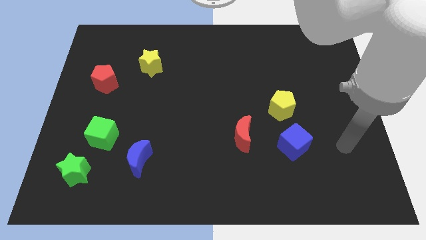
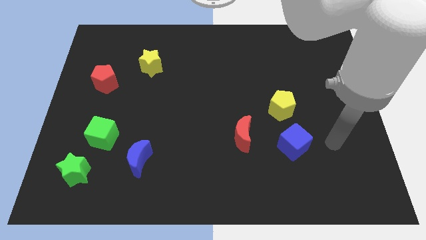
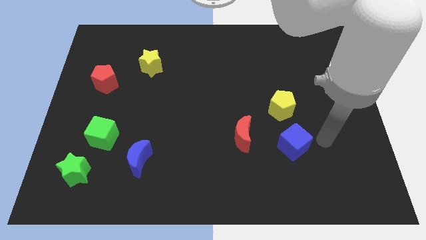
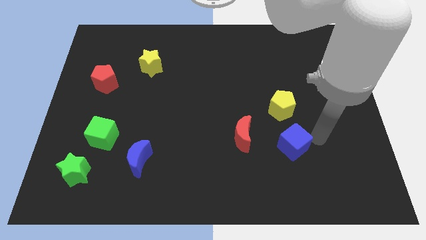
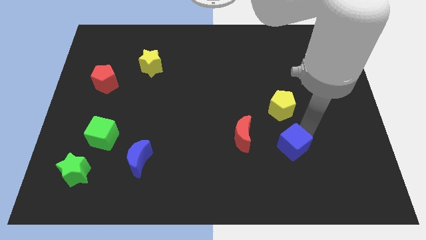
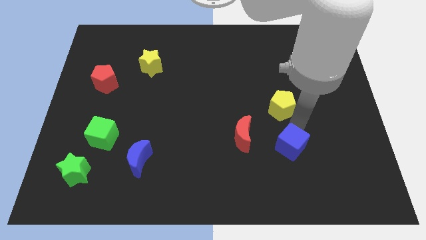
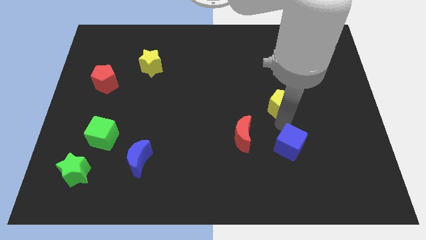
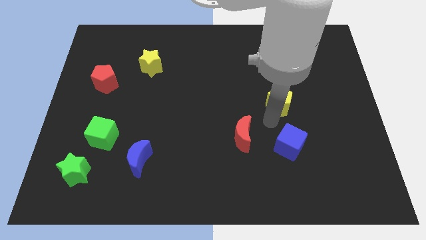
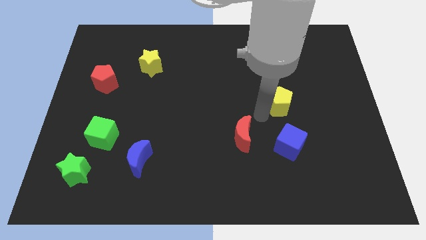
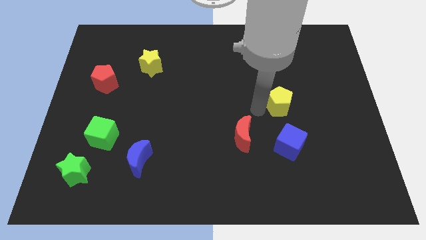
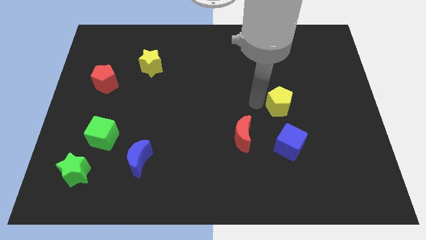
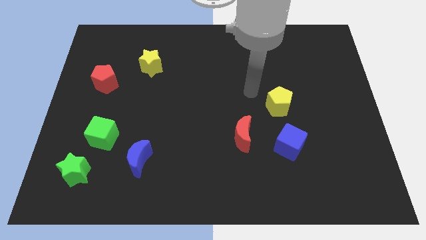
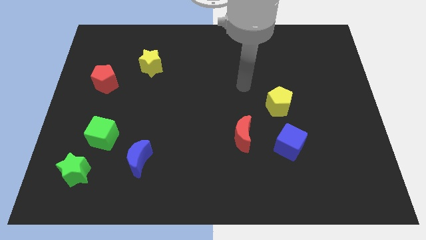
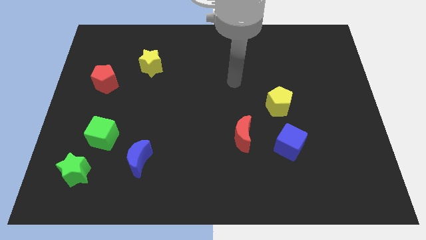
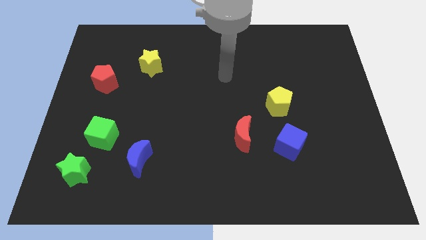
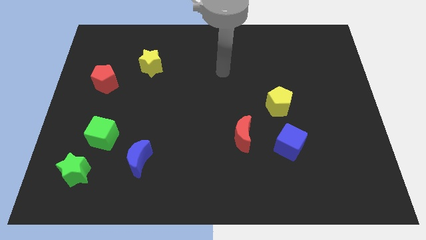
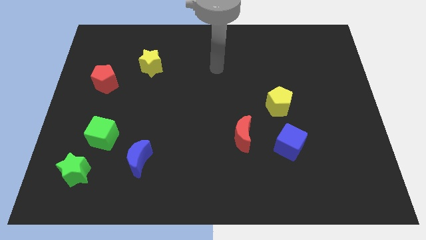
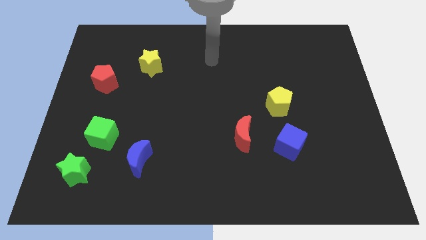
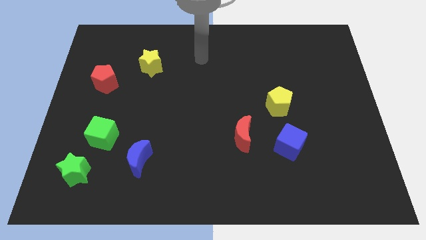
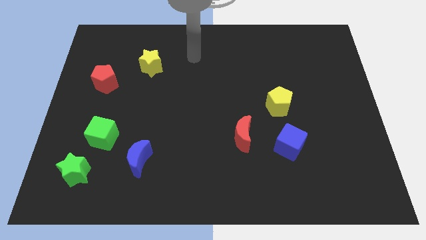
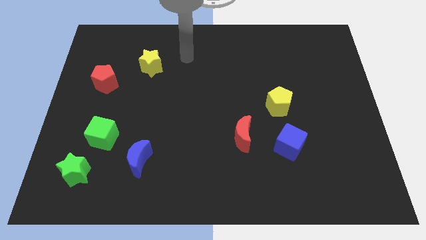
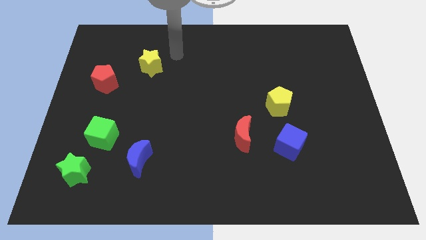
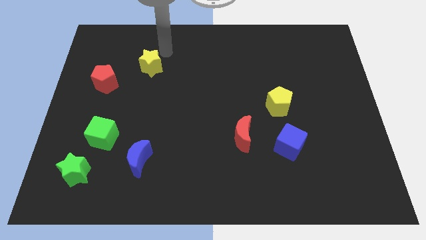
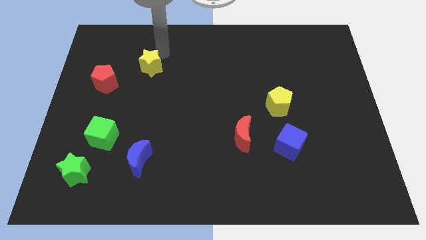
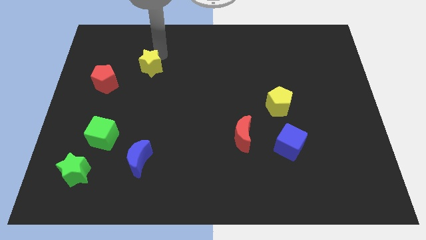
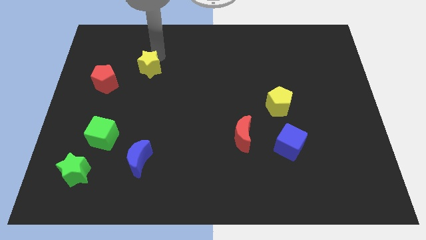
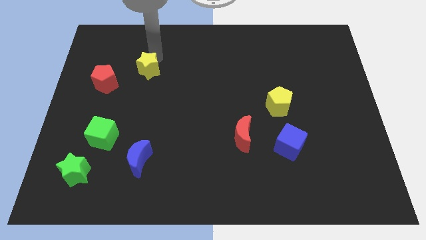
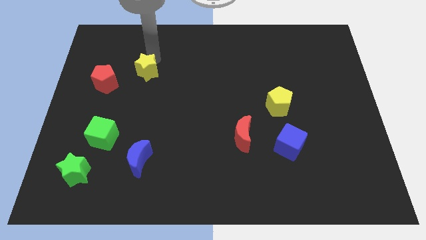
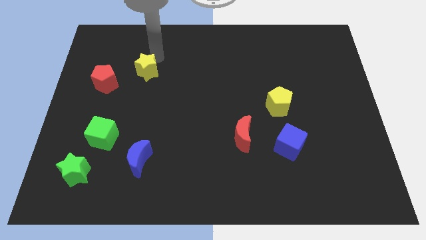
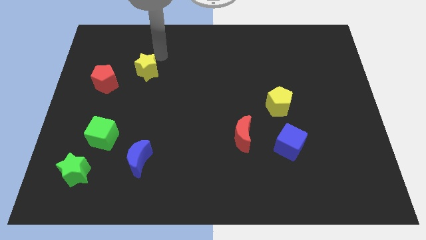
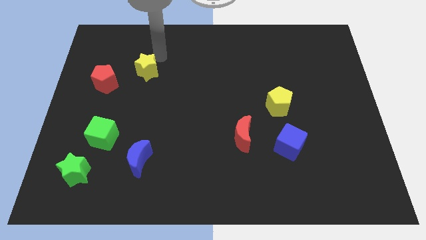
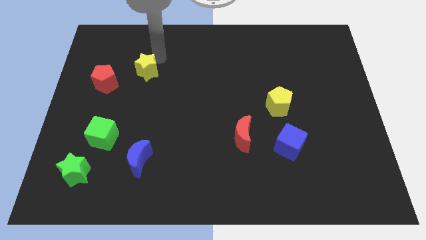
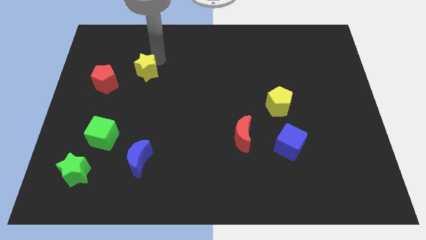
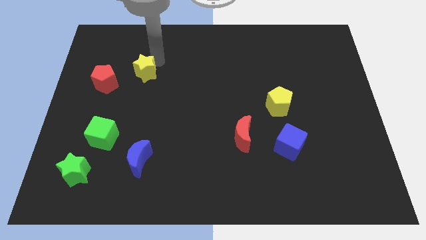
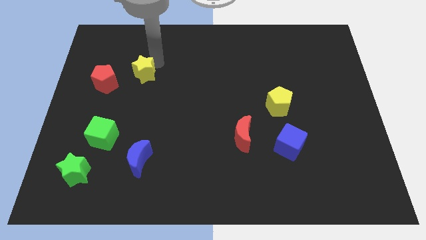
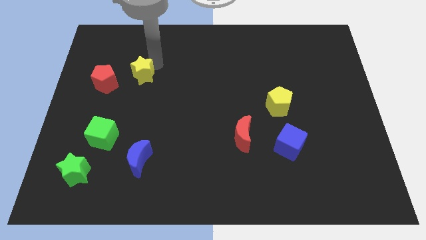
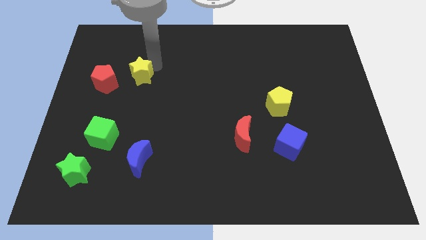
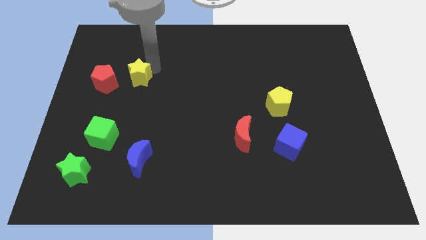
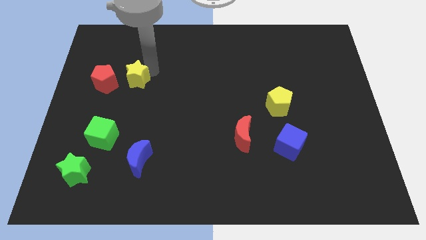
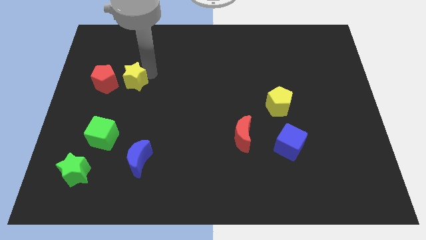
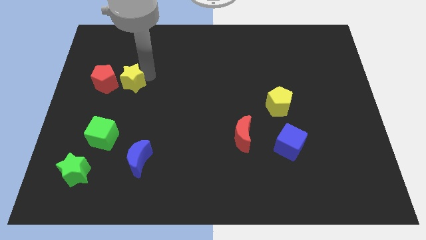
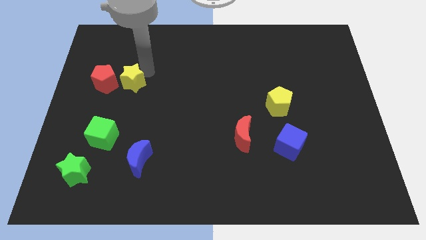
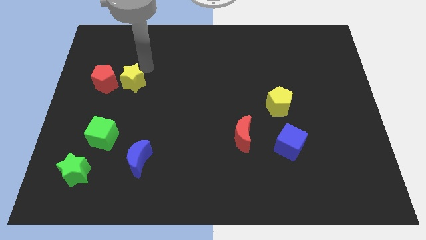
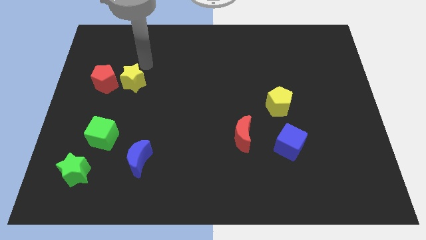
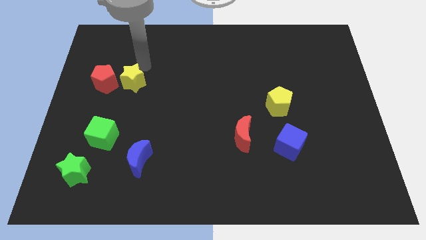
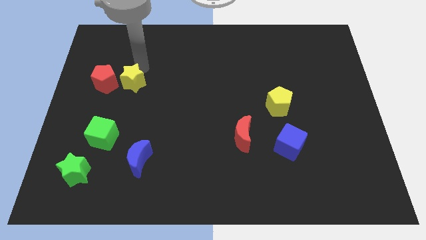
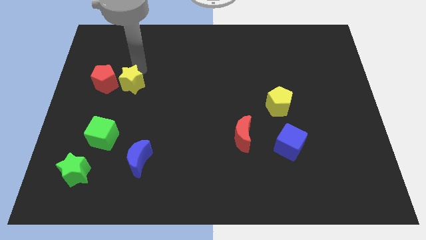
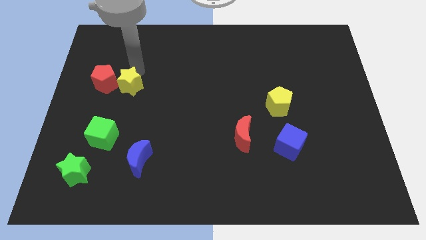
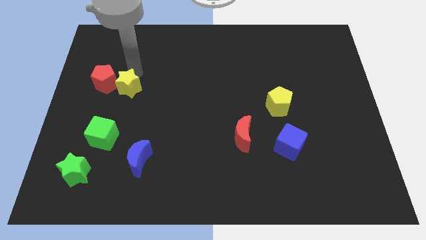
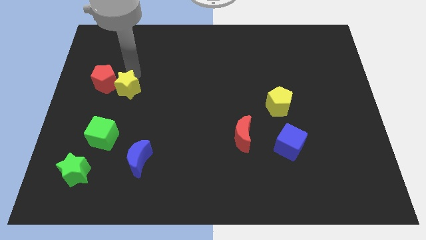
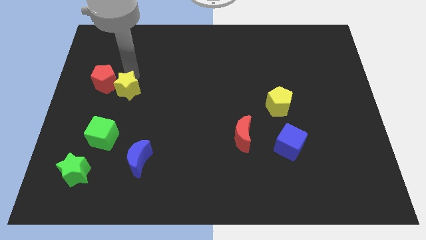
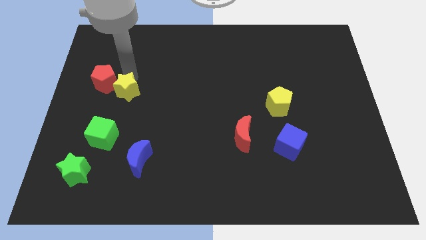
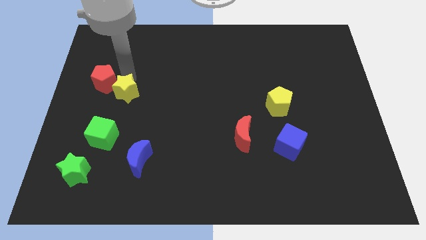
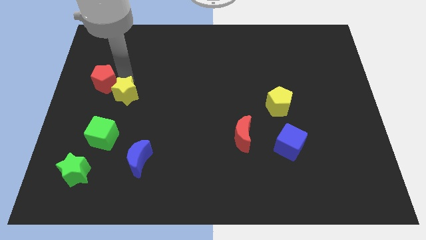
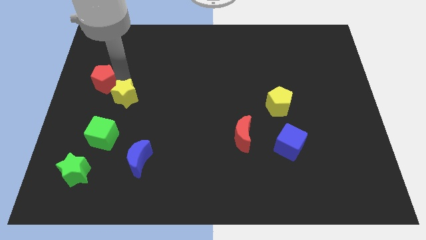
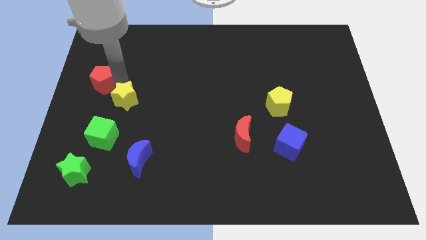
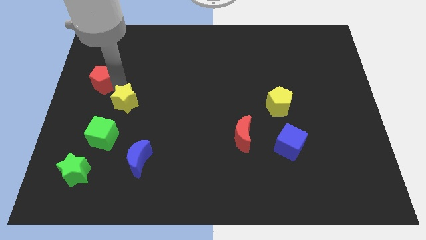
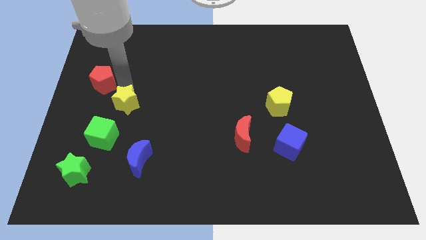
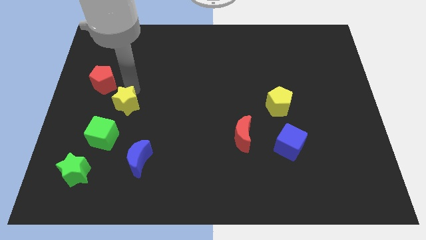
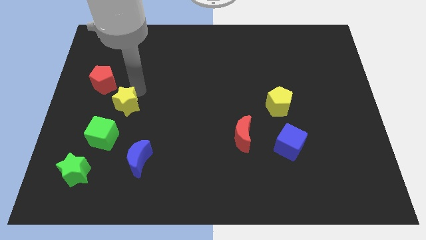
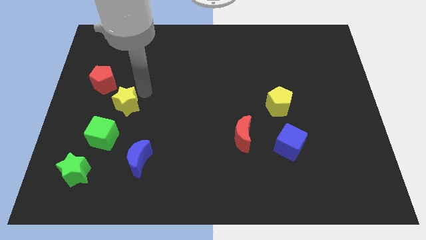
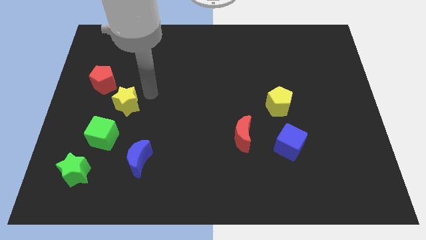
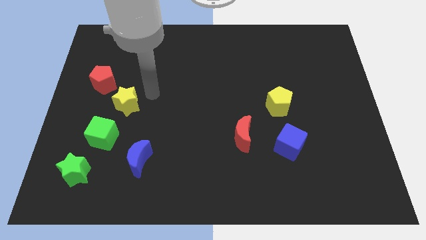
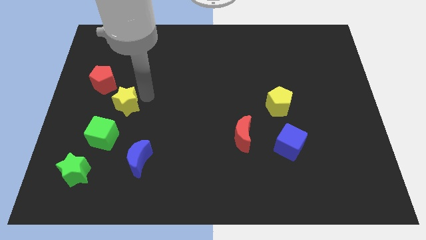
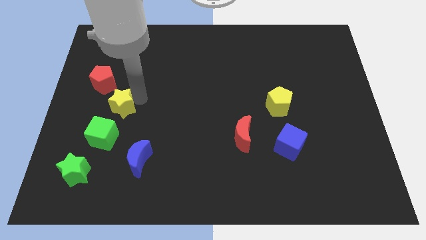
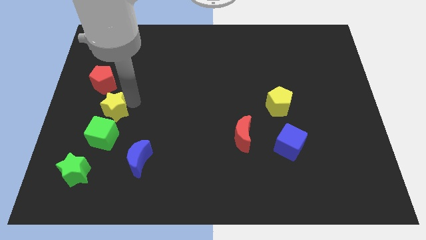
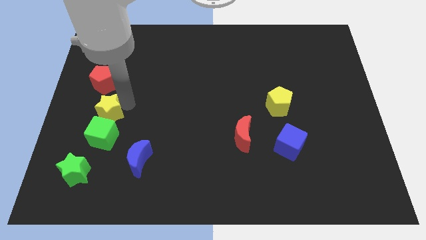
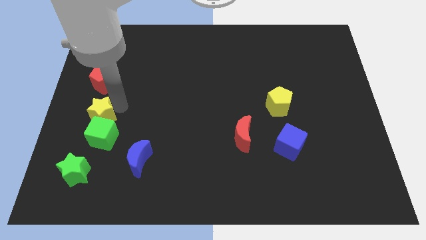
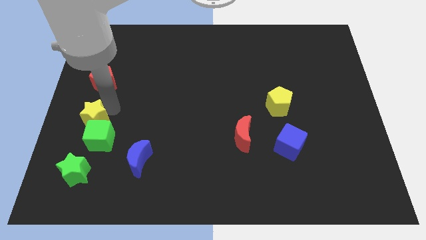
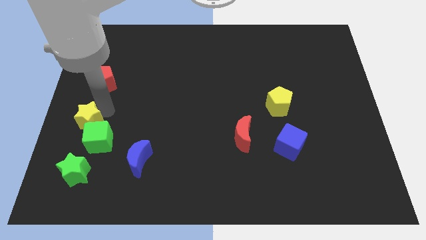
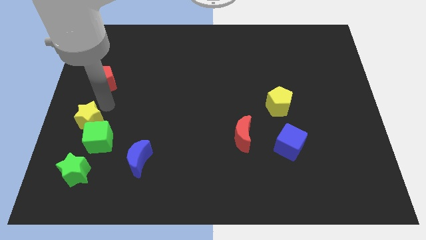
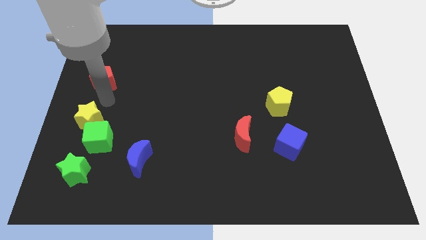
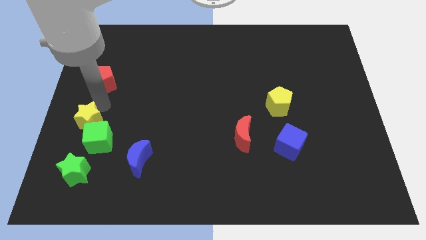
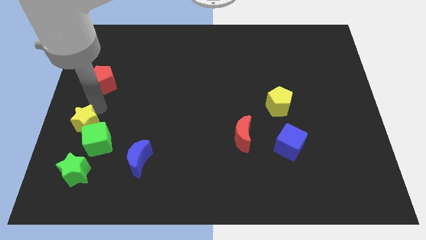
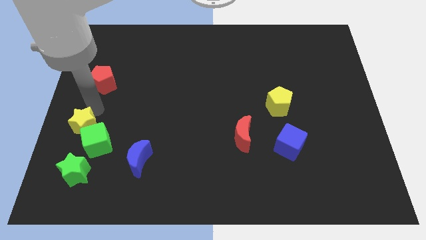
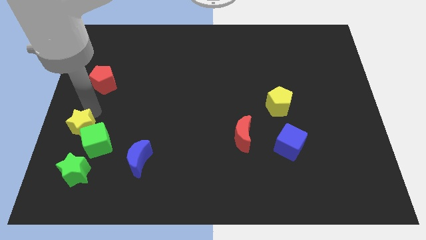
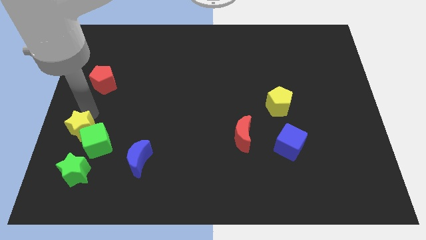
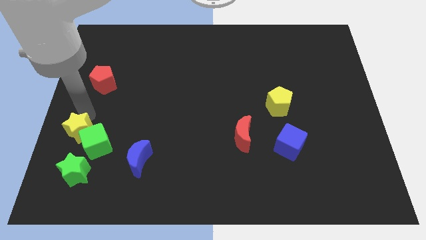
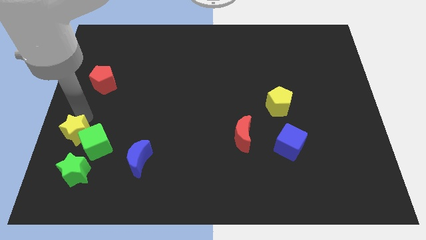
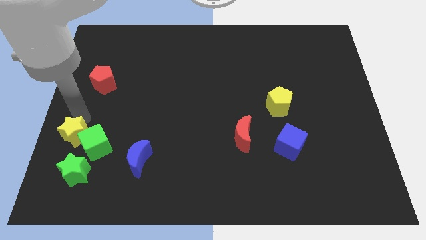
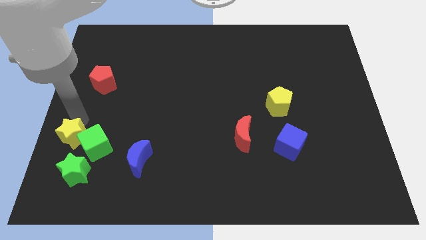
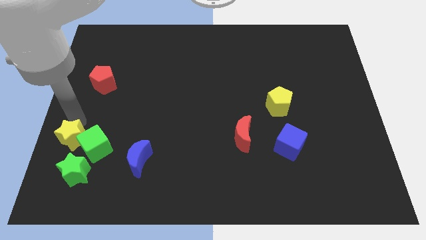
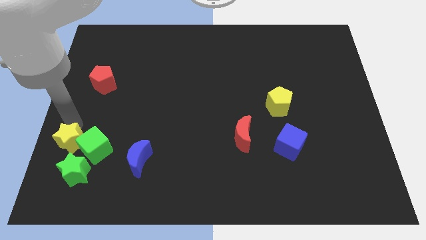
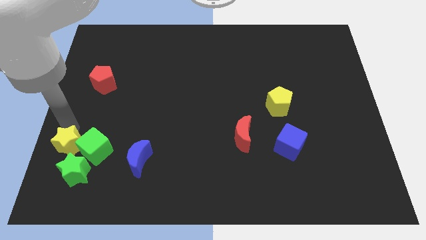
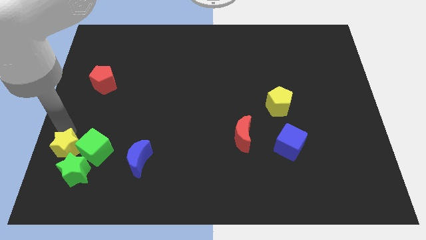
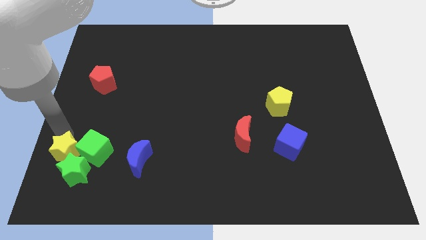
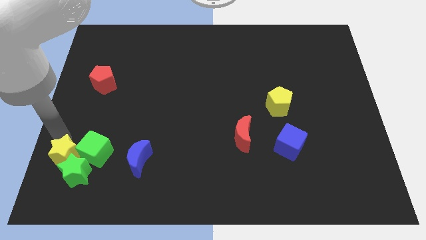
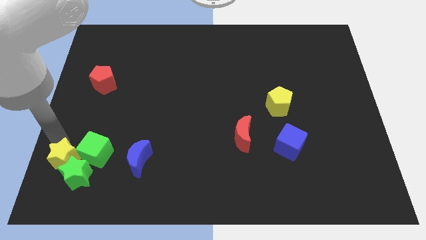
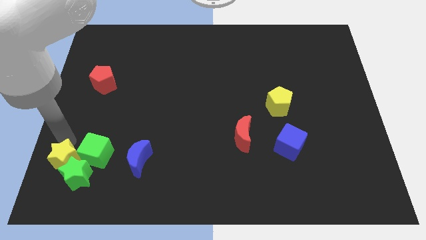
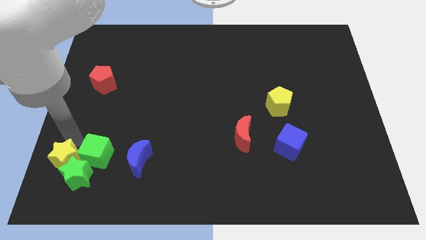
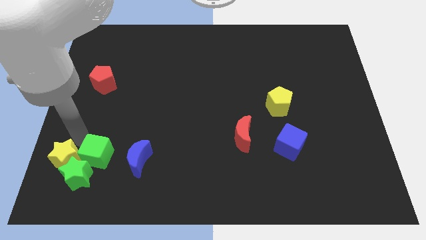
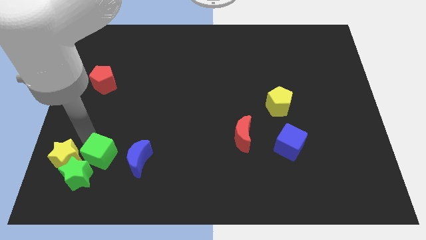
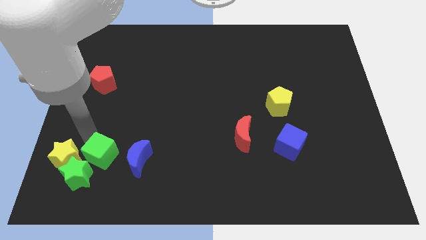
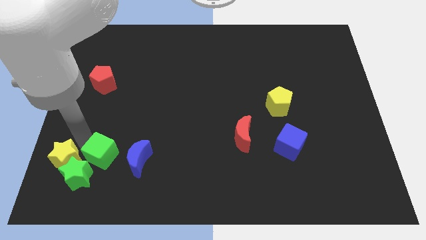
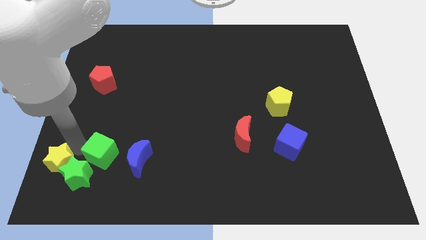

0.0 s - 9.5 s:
push the yellow star to the bottom left of the board
